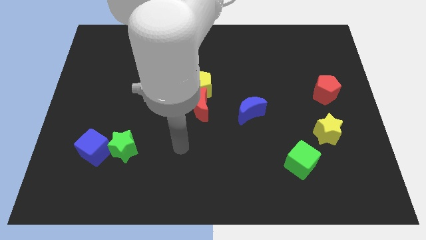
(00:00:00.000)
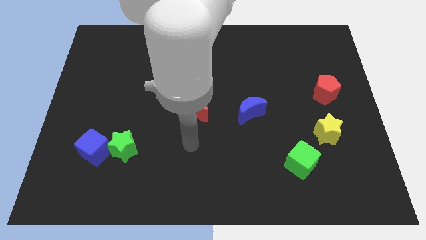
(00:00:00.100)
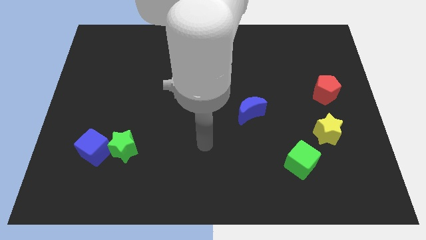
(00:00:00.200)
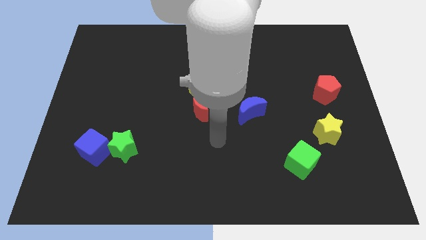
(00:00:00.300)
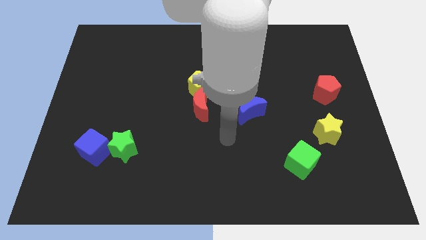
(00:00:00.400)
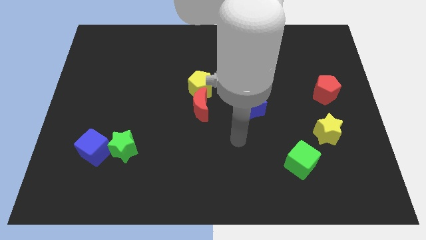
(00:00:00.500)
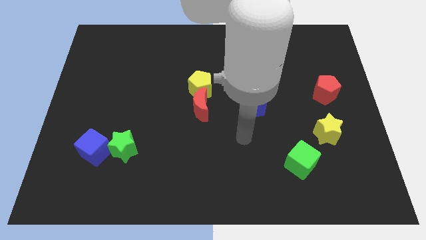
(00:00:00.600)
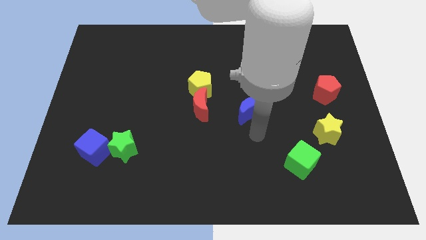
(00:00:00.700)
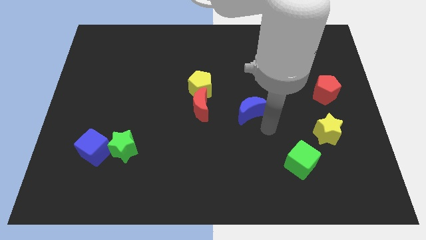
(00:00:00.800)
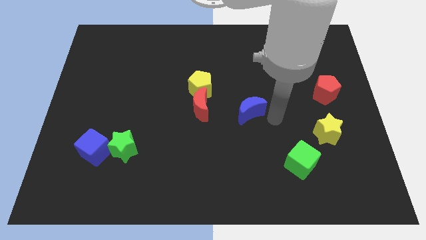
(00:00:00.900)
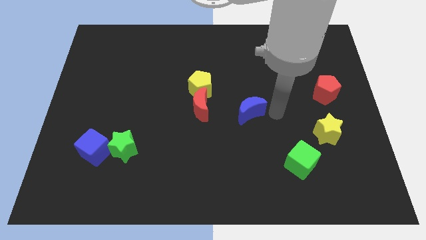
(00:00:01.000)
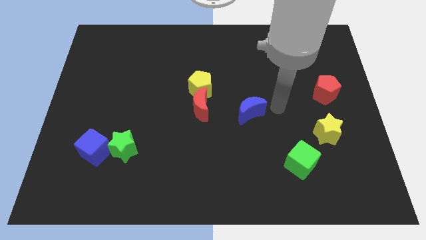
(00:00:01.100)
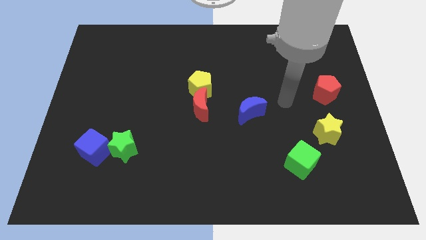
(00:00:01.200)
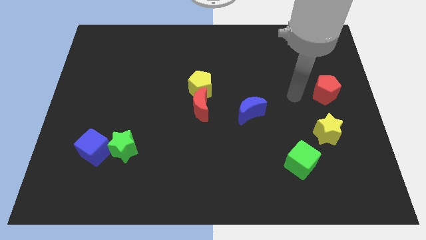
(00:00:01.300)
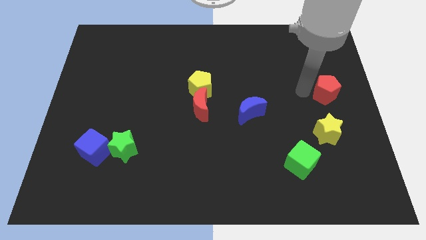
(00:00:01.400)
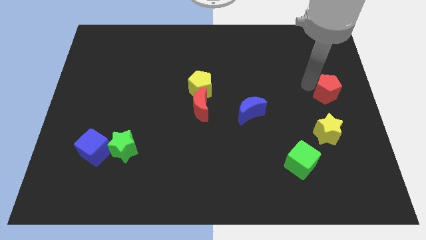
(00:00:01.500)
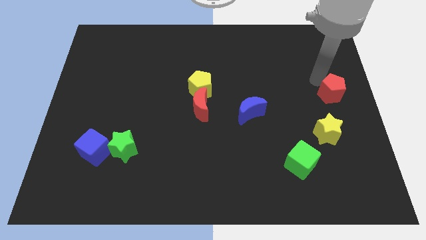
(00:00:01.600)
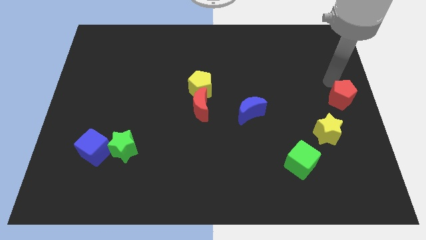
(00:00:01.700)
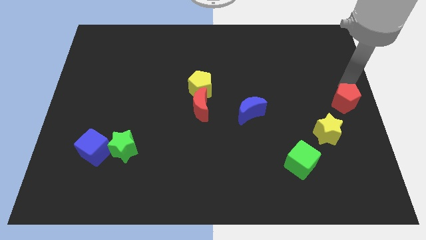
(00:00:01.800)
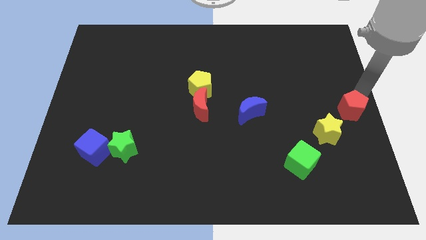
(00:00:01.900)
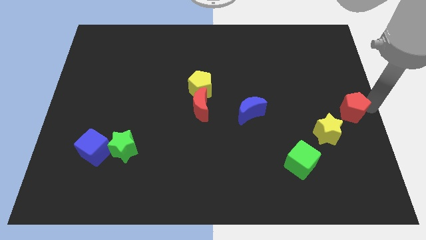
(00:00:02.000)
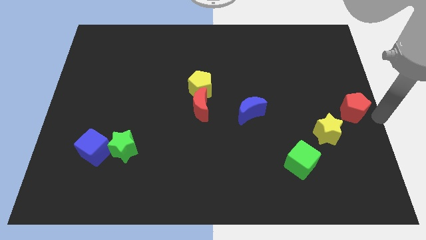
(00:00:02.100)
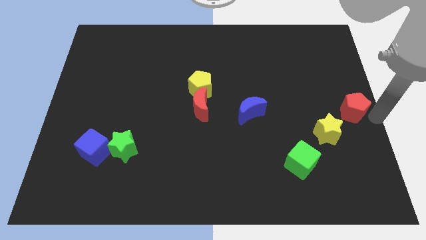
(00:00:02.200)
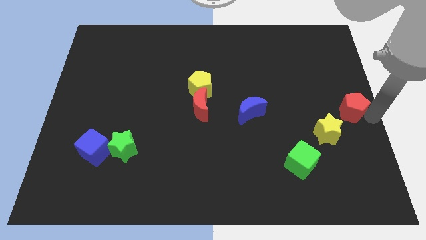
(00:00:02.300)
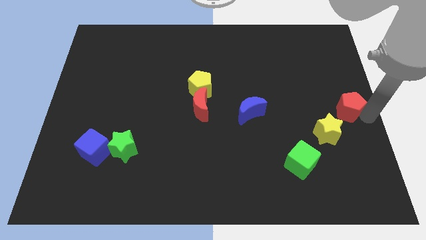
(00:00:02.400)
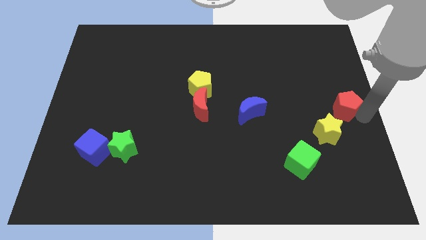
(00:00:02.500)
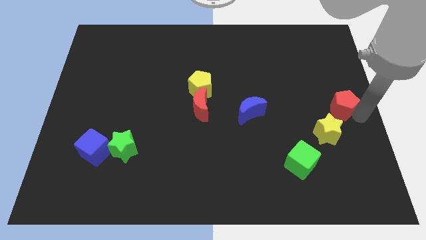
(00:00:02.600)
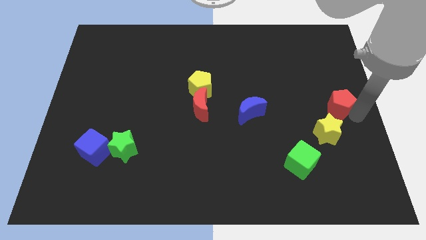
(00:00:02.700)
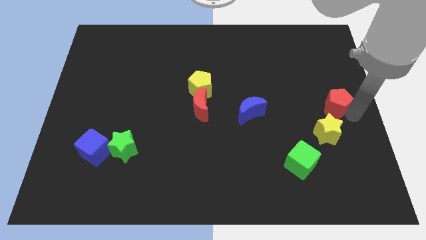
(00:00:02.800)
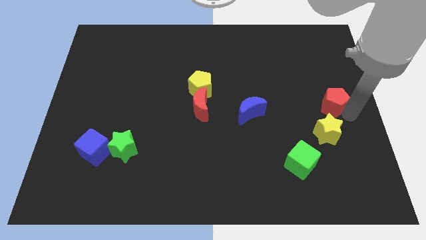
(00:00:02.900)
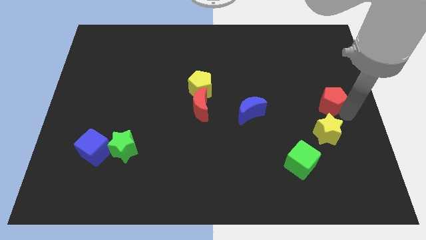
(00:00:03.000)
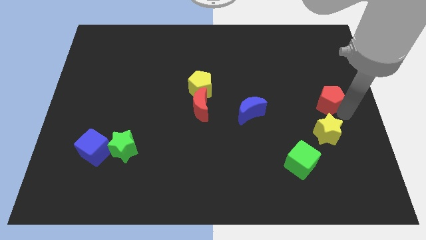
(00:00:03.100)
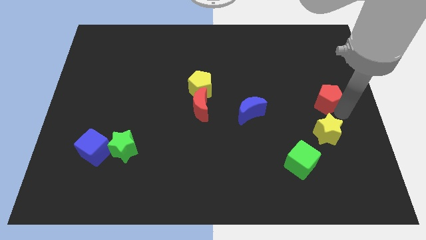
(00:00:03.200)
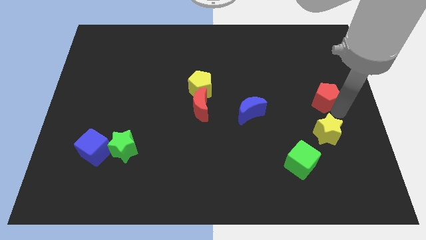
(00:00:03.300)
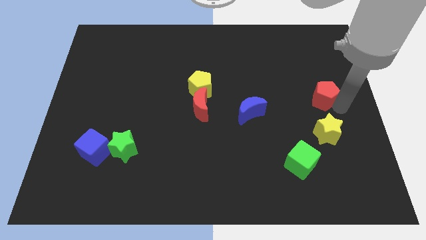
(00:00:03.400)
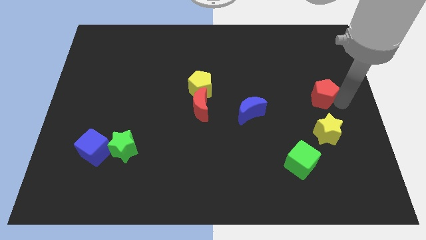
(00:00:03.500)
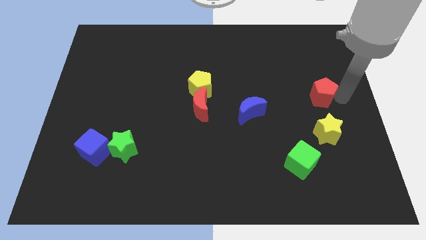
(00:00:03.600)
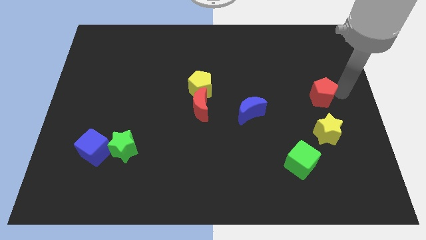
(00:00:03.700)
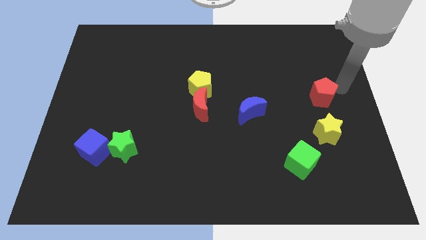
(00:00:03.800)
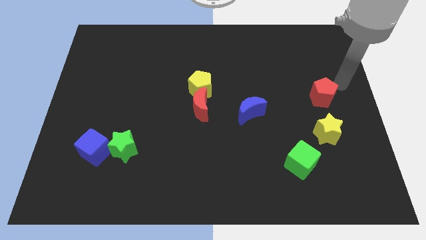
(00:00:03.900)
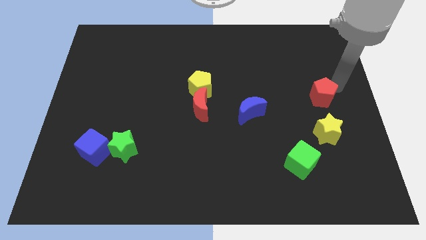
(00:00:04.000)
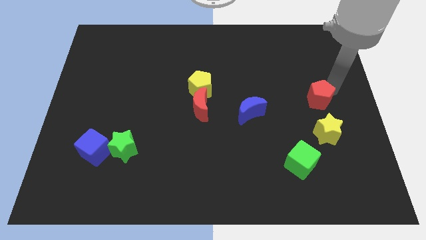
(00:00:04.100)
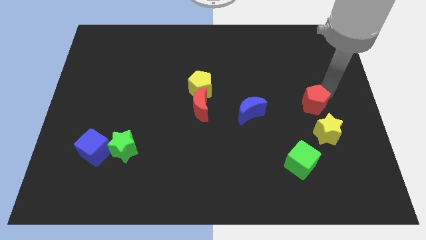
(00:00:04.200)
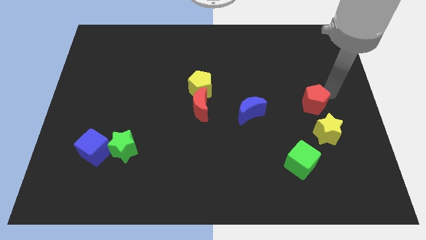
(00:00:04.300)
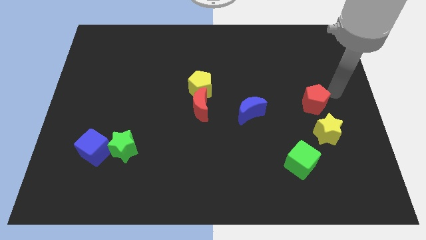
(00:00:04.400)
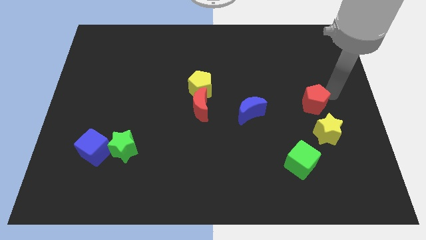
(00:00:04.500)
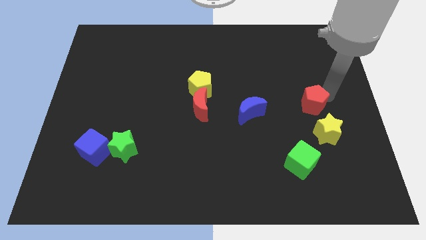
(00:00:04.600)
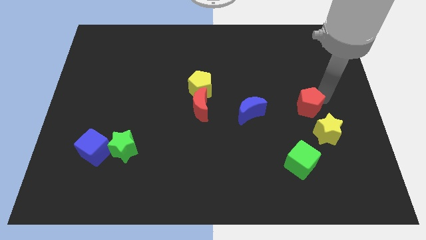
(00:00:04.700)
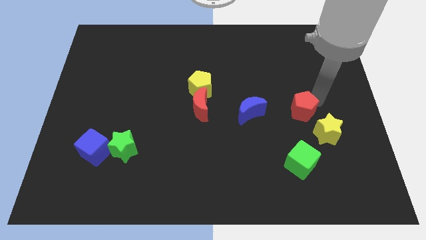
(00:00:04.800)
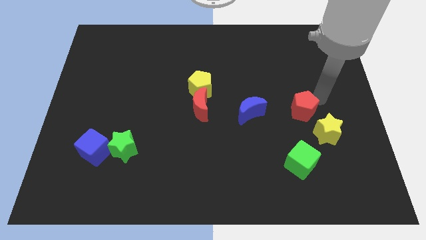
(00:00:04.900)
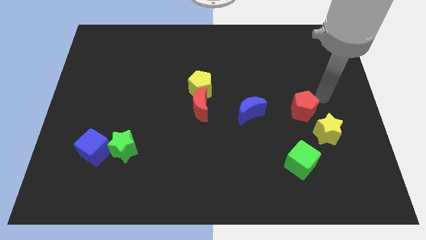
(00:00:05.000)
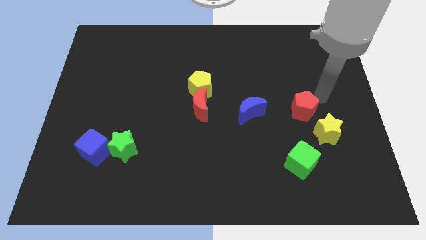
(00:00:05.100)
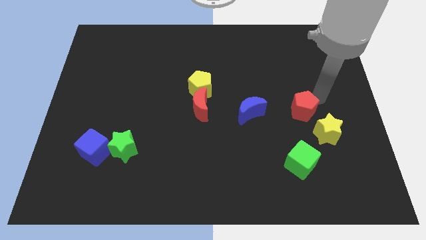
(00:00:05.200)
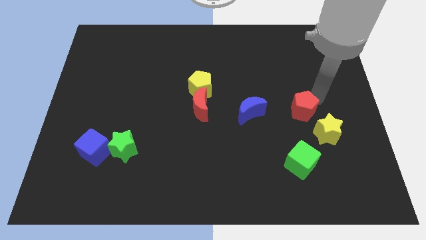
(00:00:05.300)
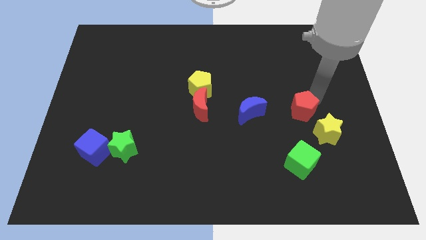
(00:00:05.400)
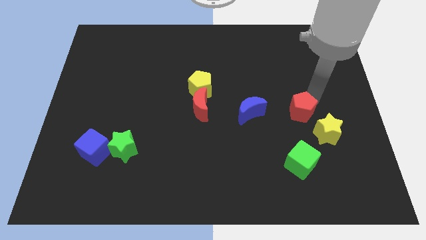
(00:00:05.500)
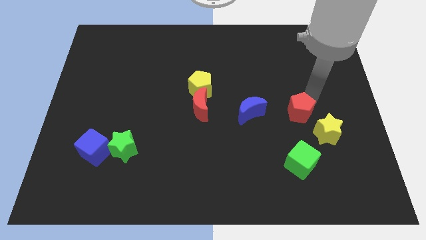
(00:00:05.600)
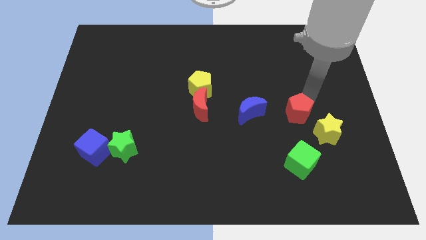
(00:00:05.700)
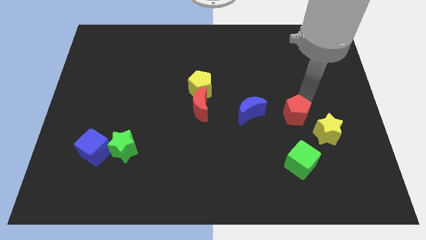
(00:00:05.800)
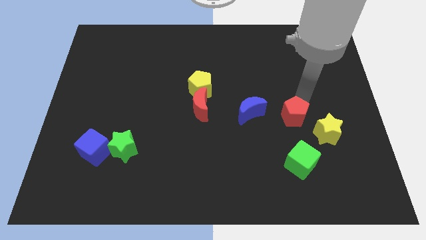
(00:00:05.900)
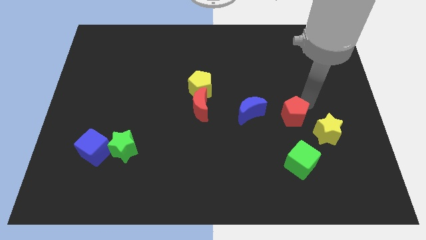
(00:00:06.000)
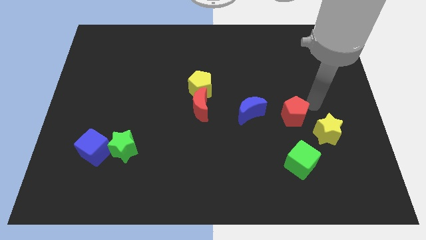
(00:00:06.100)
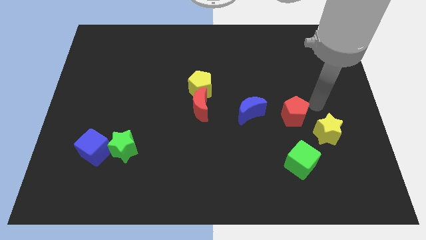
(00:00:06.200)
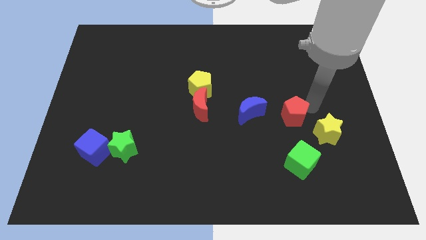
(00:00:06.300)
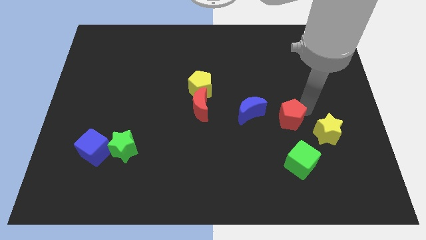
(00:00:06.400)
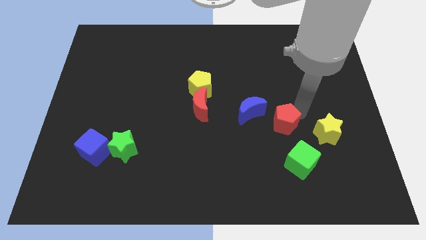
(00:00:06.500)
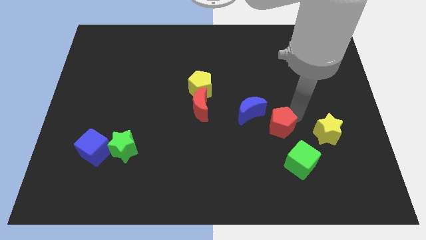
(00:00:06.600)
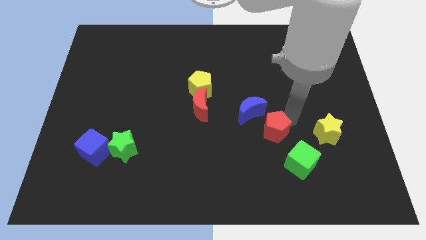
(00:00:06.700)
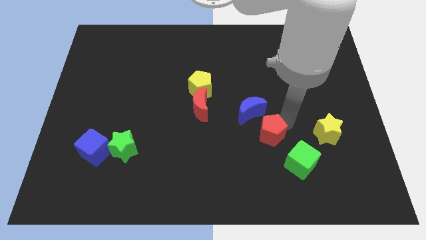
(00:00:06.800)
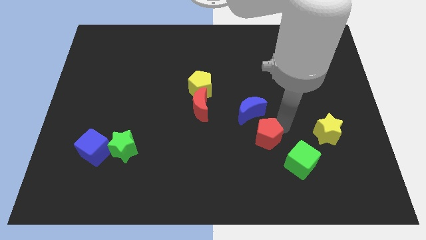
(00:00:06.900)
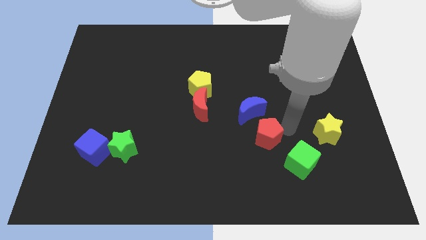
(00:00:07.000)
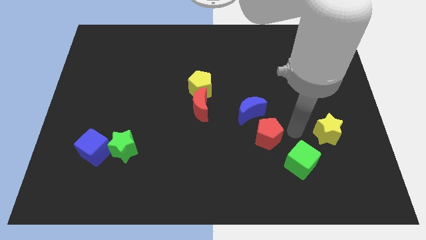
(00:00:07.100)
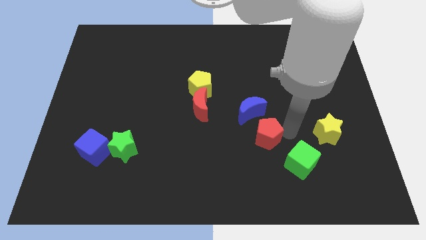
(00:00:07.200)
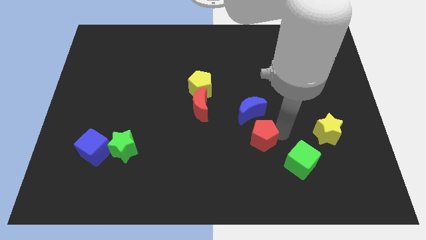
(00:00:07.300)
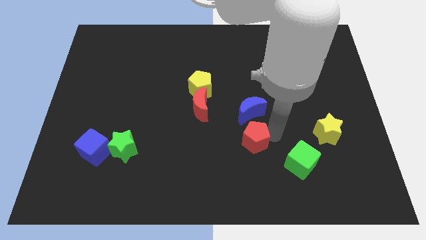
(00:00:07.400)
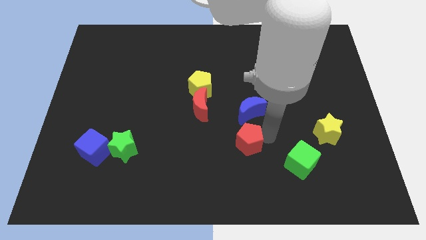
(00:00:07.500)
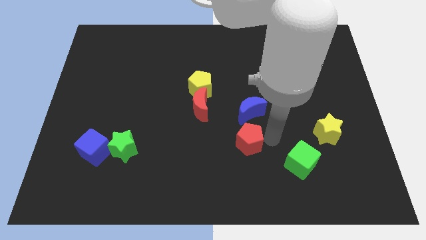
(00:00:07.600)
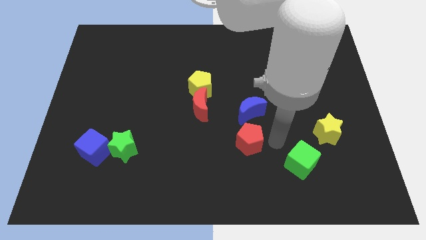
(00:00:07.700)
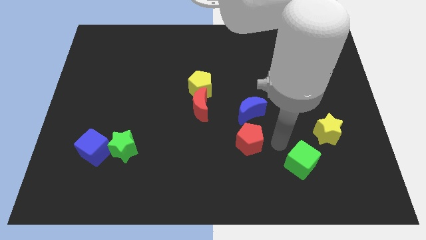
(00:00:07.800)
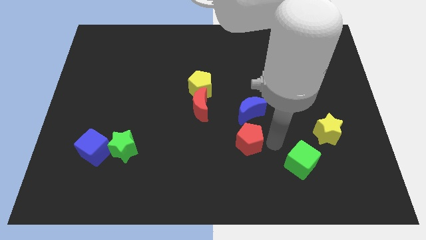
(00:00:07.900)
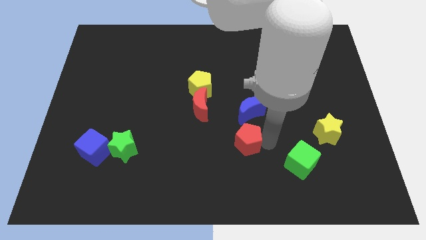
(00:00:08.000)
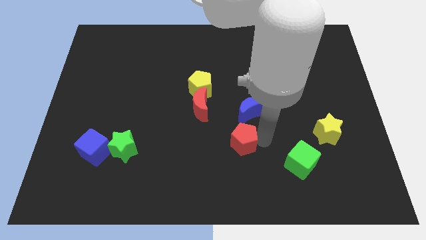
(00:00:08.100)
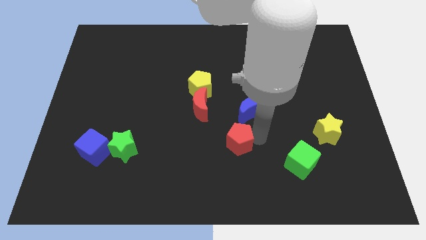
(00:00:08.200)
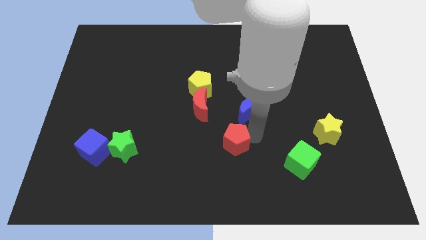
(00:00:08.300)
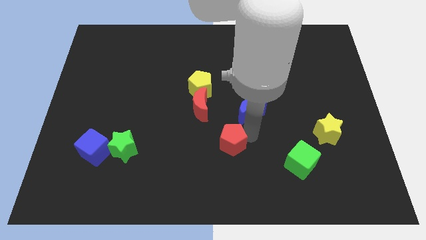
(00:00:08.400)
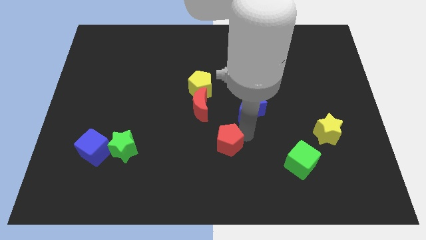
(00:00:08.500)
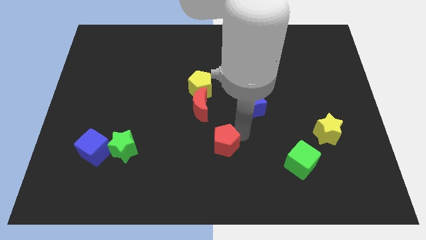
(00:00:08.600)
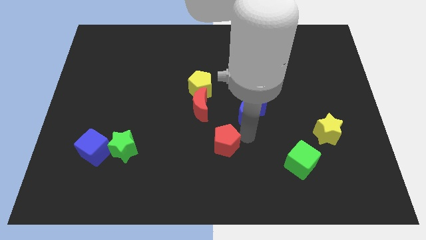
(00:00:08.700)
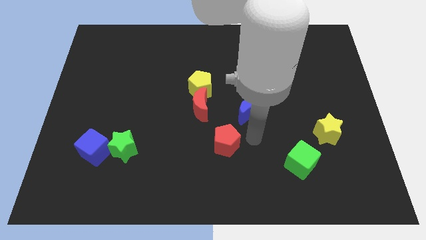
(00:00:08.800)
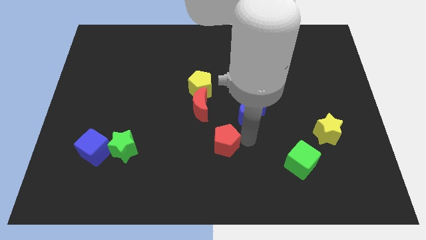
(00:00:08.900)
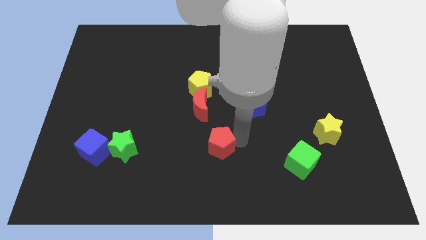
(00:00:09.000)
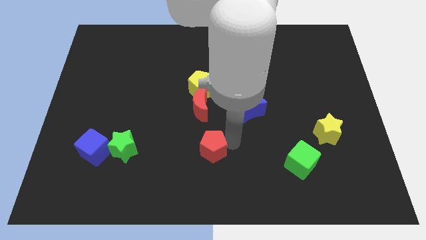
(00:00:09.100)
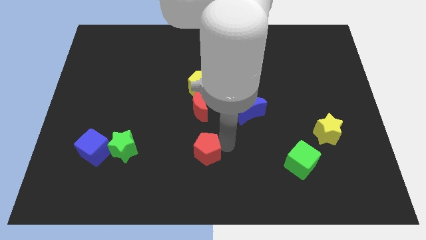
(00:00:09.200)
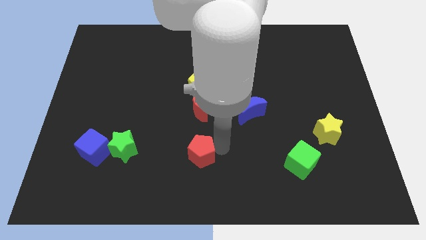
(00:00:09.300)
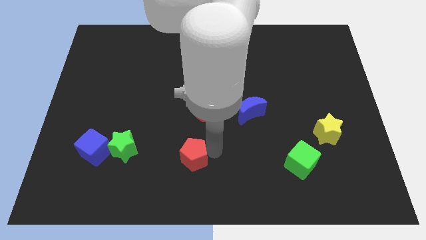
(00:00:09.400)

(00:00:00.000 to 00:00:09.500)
put the red pentagon just right of the green star
